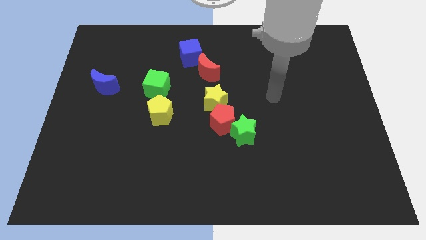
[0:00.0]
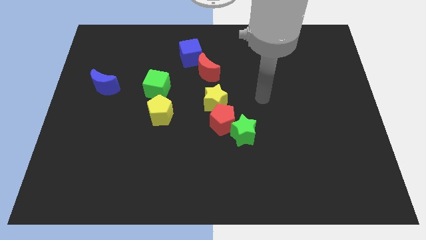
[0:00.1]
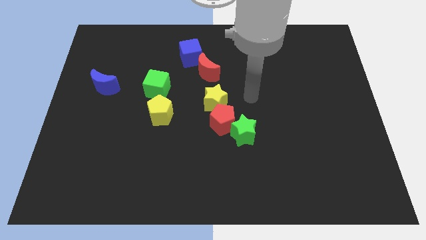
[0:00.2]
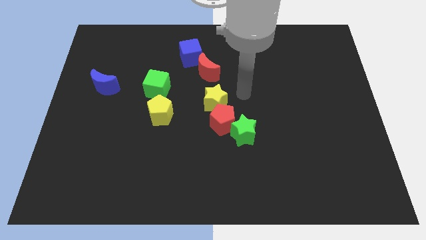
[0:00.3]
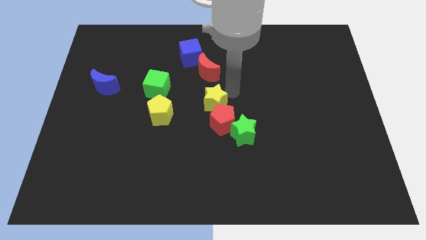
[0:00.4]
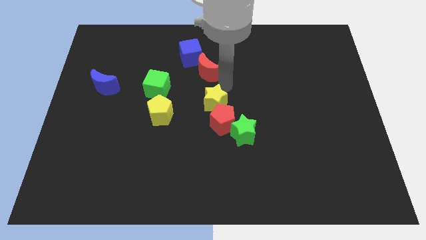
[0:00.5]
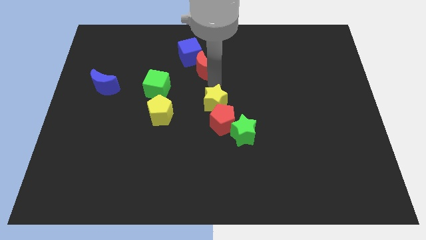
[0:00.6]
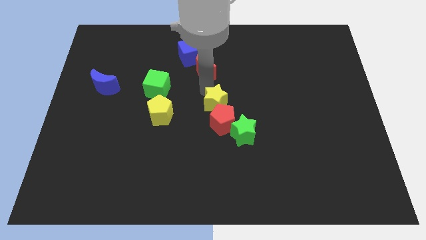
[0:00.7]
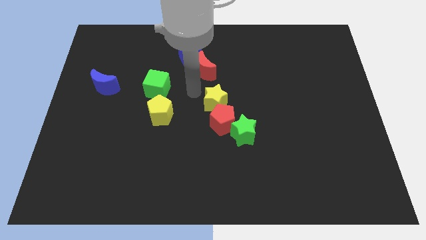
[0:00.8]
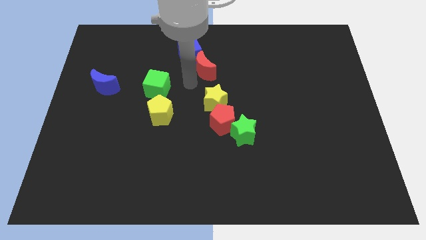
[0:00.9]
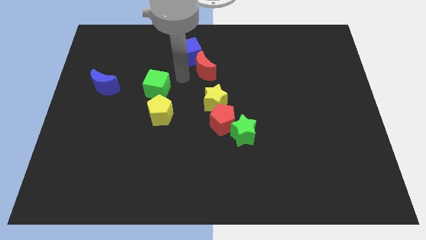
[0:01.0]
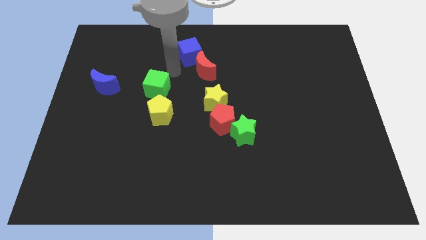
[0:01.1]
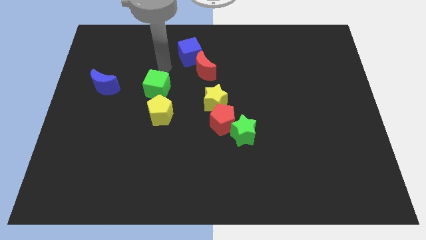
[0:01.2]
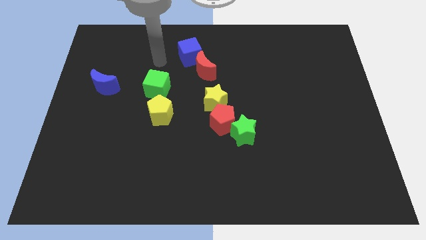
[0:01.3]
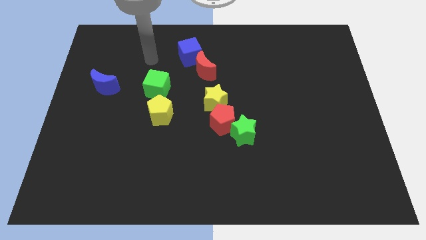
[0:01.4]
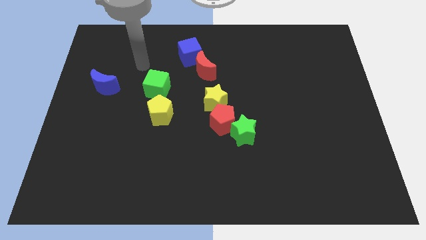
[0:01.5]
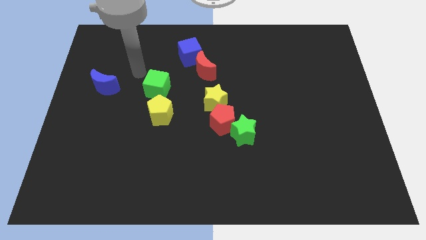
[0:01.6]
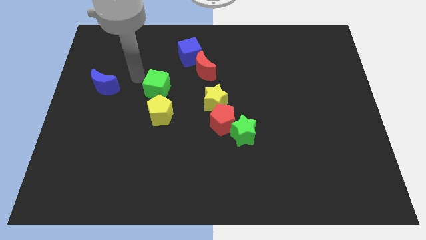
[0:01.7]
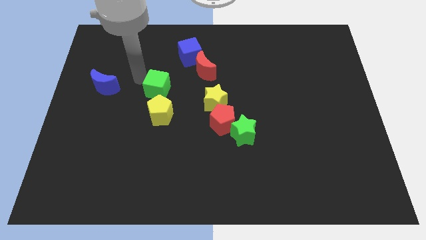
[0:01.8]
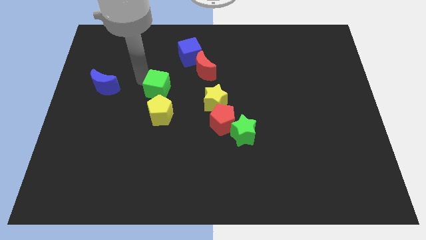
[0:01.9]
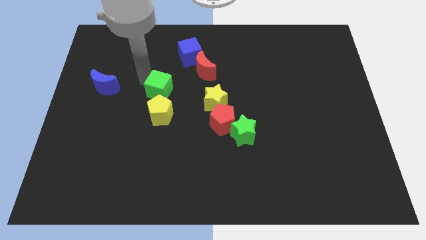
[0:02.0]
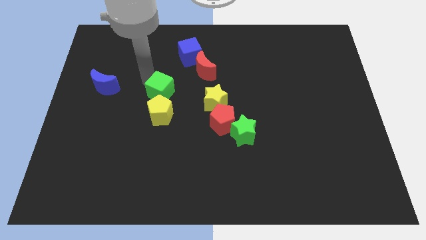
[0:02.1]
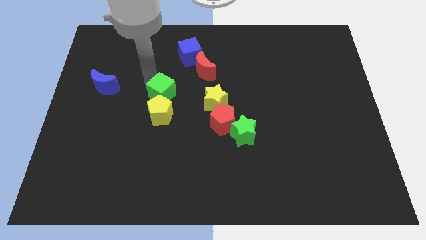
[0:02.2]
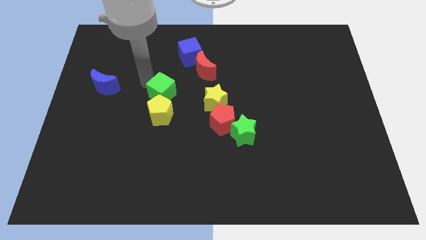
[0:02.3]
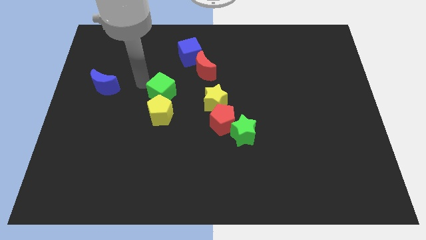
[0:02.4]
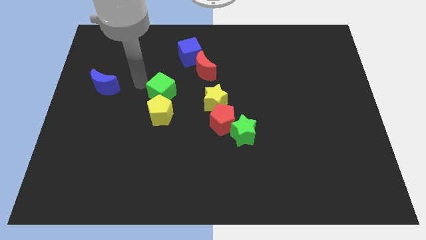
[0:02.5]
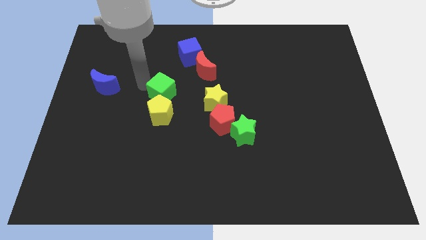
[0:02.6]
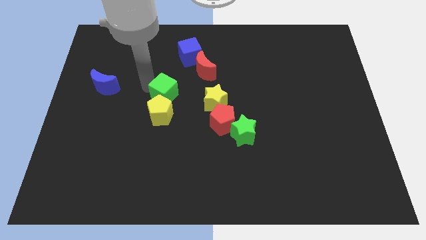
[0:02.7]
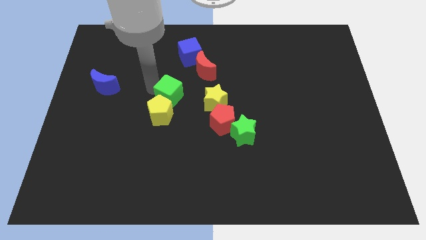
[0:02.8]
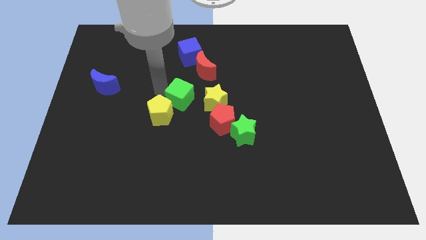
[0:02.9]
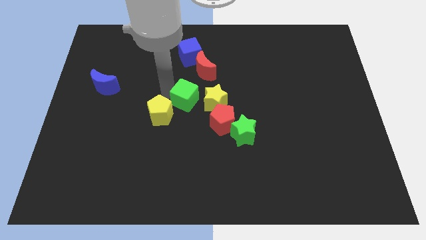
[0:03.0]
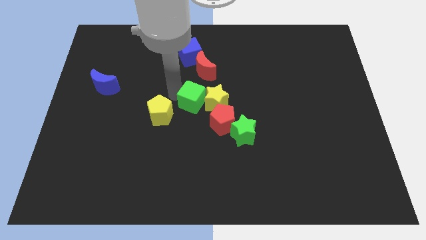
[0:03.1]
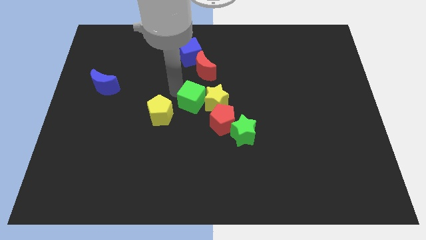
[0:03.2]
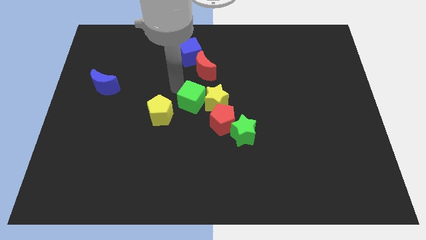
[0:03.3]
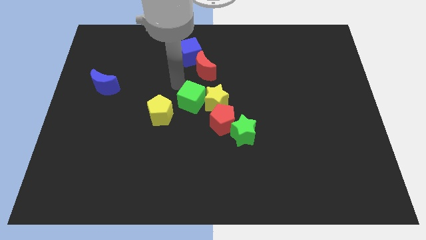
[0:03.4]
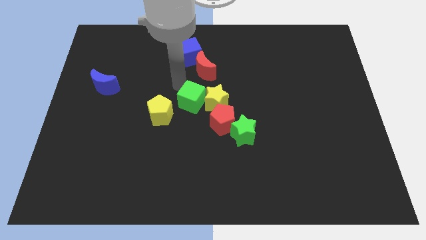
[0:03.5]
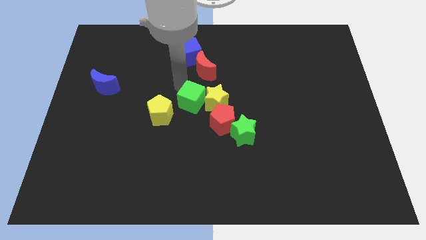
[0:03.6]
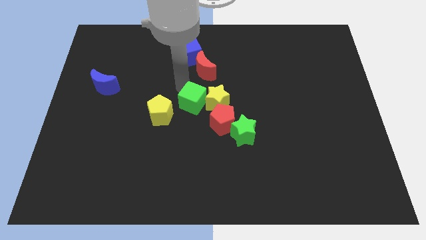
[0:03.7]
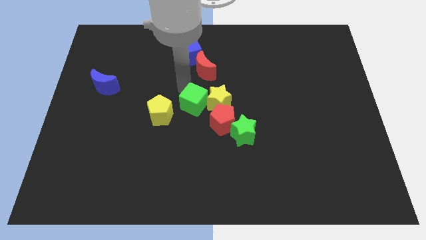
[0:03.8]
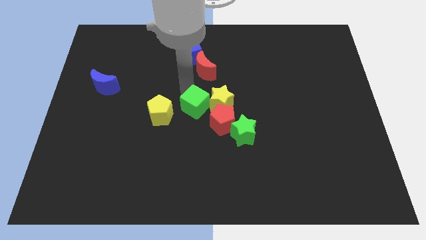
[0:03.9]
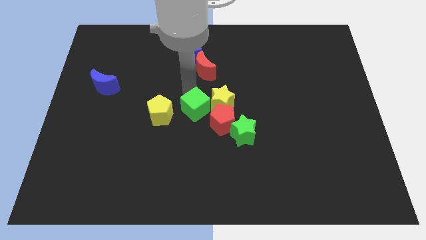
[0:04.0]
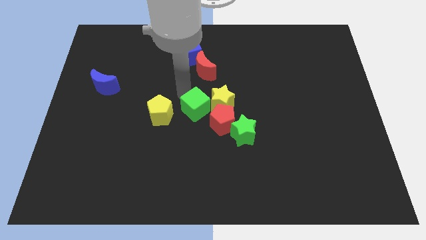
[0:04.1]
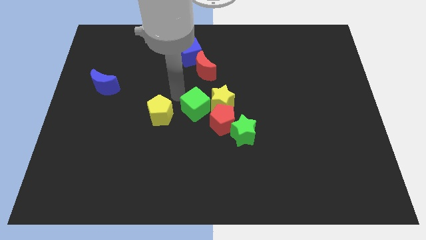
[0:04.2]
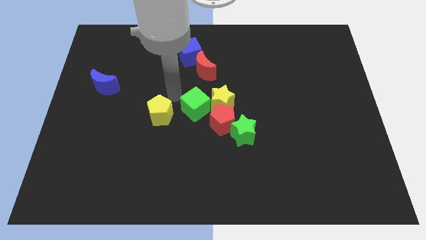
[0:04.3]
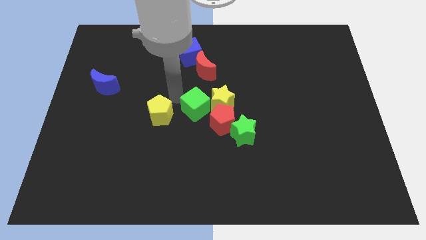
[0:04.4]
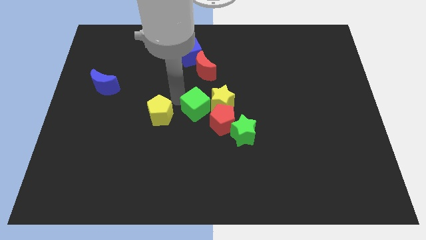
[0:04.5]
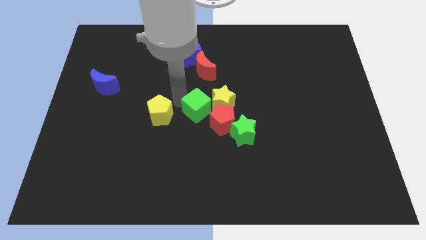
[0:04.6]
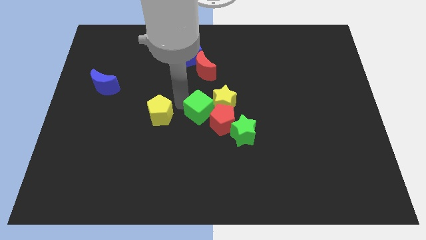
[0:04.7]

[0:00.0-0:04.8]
push the green cube to the red pentagon

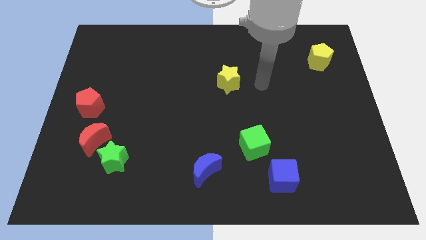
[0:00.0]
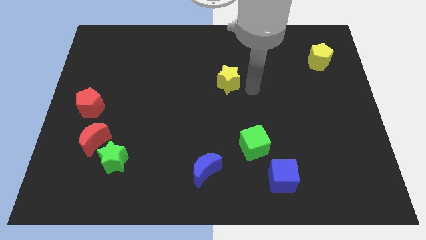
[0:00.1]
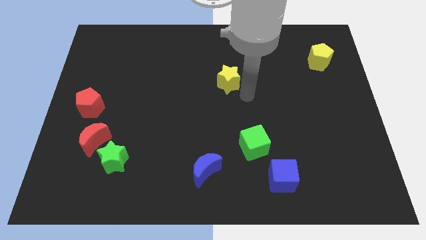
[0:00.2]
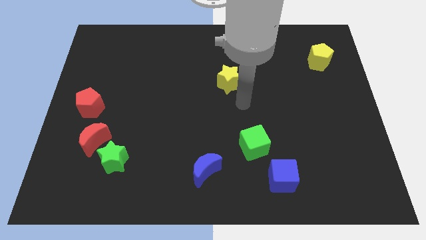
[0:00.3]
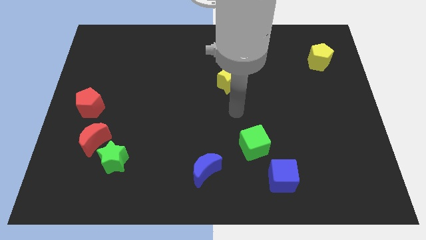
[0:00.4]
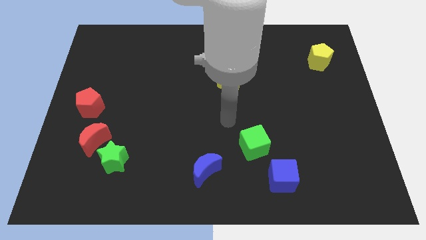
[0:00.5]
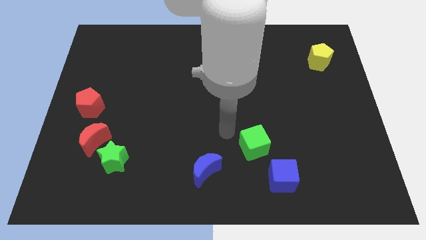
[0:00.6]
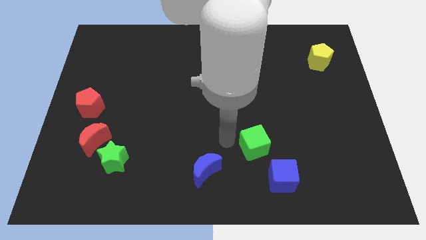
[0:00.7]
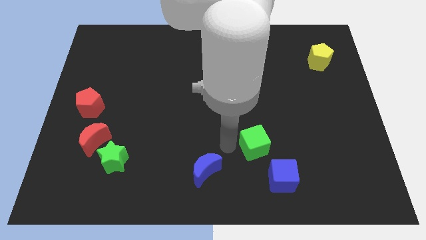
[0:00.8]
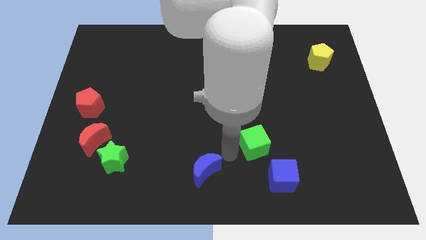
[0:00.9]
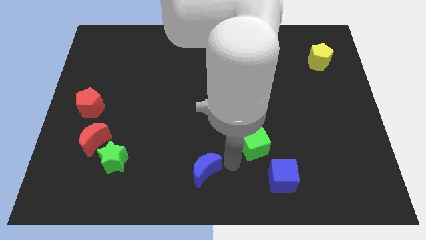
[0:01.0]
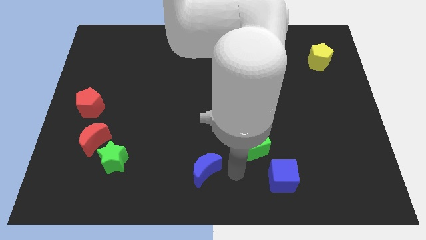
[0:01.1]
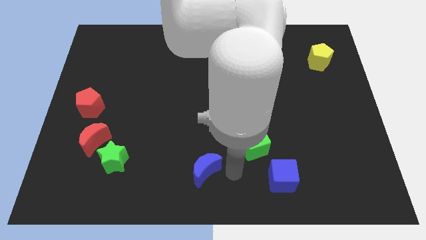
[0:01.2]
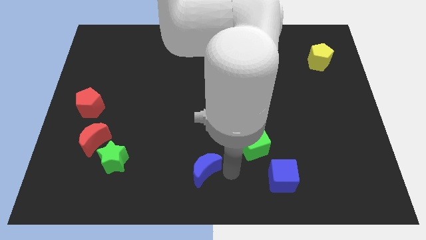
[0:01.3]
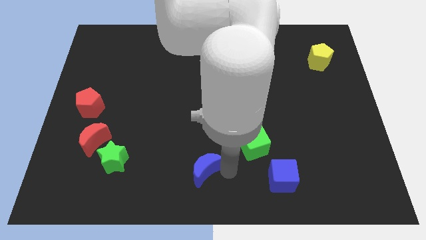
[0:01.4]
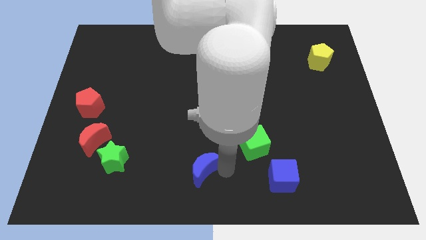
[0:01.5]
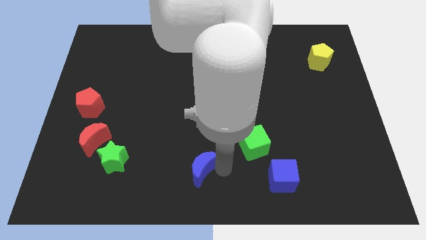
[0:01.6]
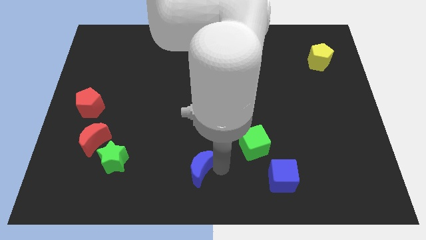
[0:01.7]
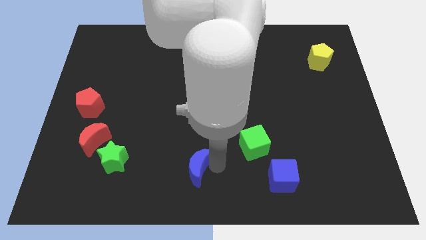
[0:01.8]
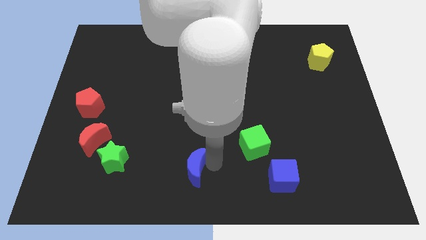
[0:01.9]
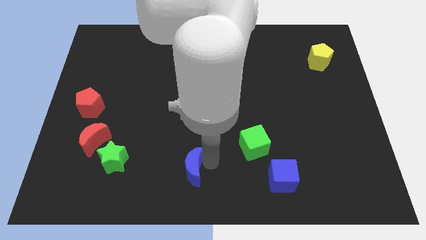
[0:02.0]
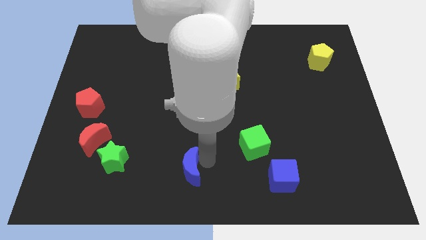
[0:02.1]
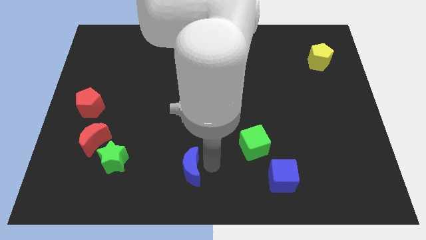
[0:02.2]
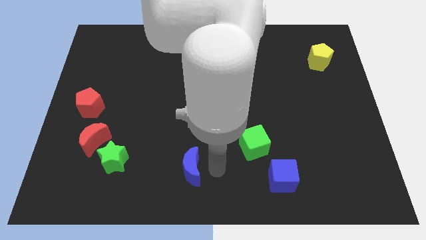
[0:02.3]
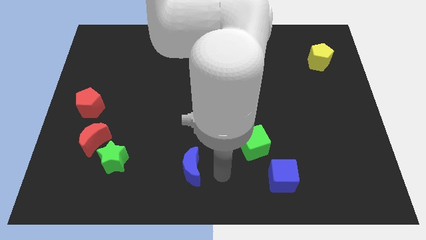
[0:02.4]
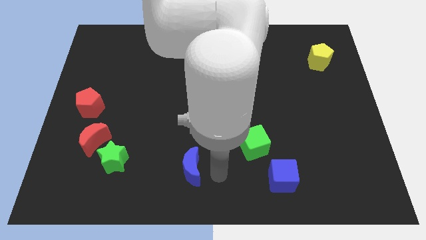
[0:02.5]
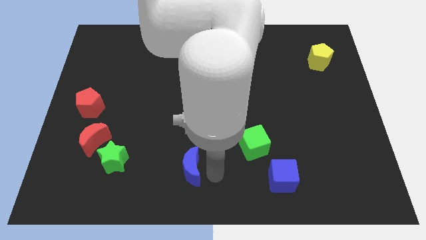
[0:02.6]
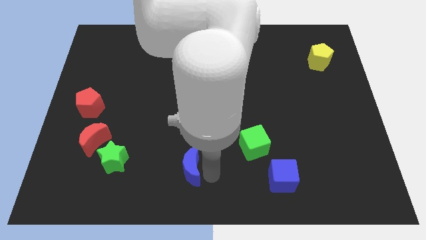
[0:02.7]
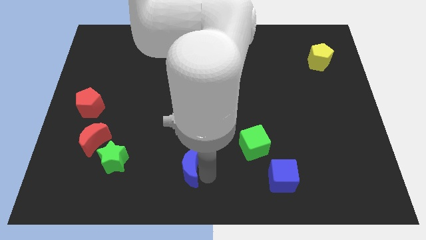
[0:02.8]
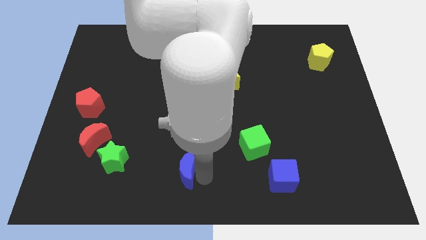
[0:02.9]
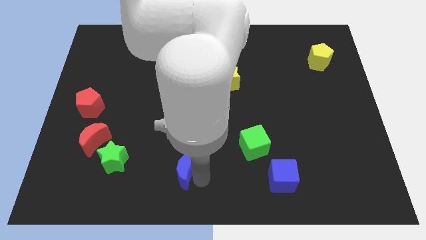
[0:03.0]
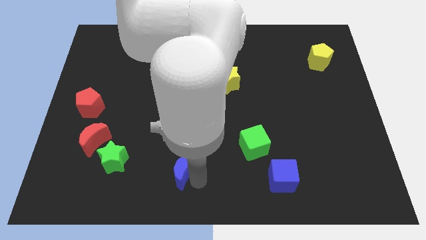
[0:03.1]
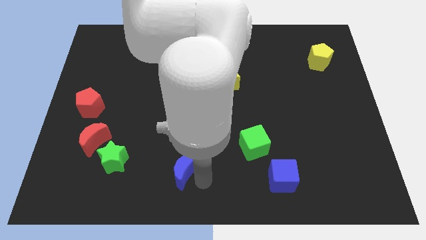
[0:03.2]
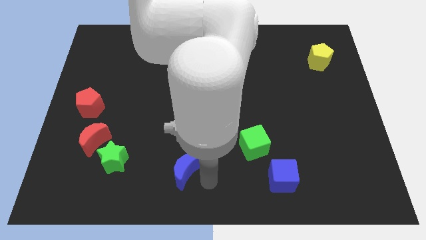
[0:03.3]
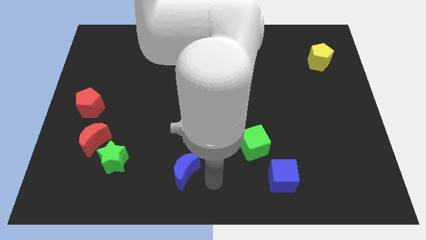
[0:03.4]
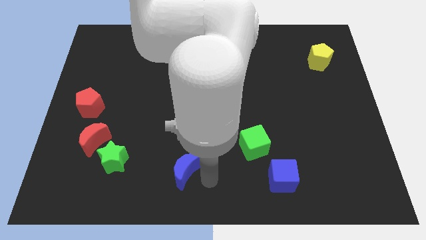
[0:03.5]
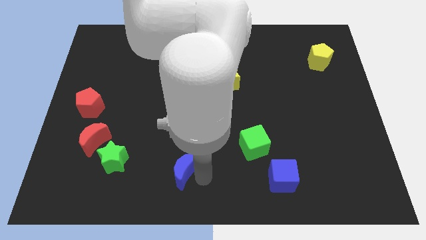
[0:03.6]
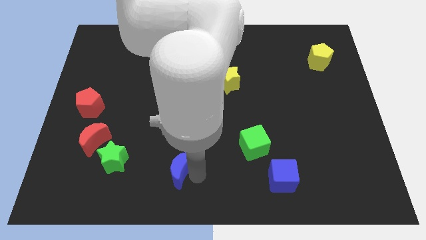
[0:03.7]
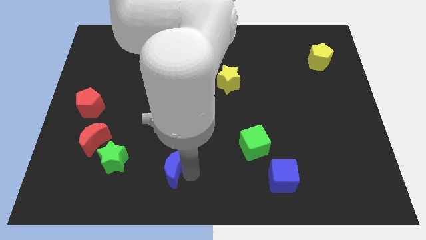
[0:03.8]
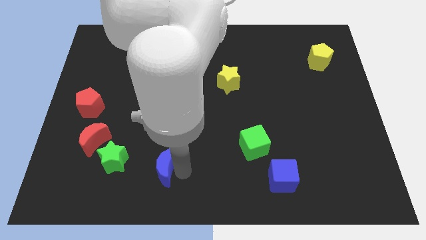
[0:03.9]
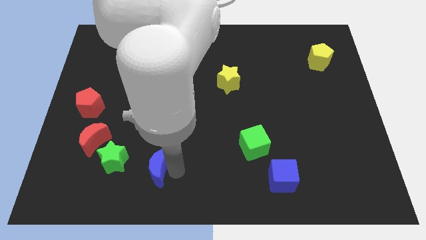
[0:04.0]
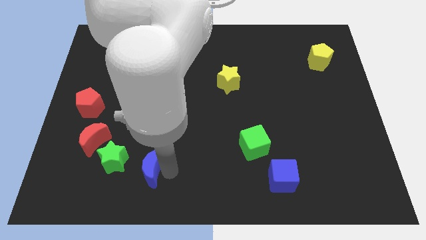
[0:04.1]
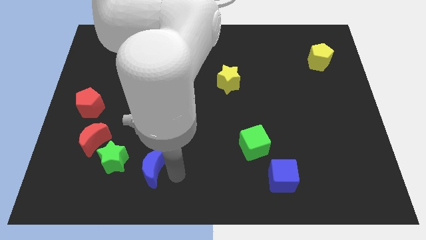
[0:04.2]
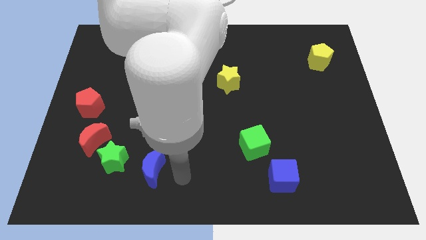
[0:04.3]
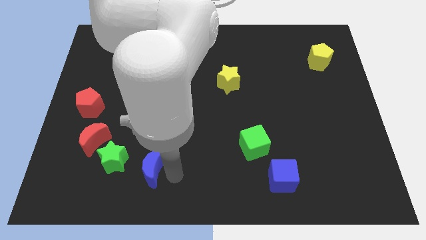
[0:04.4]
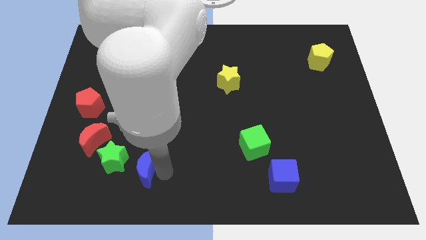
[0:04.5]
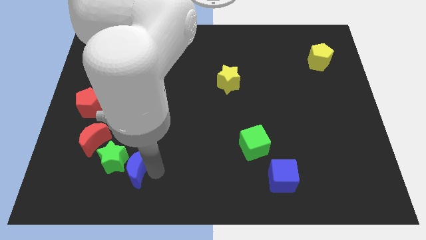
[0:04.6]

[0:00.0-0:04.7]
slide the blue moon to the green star
